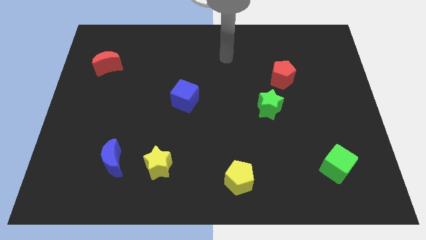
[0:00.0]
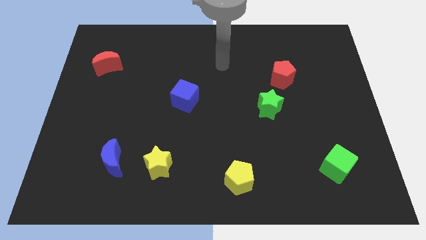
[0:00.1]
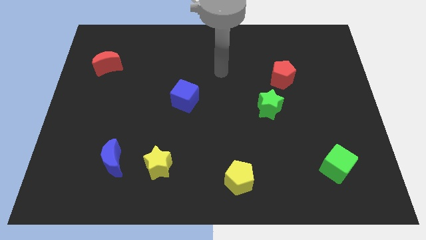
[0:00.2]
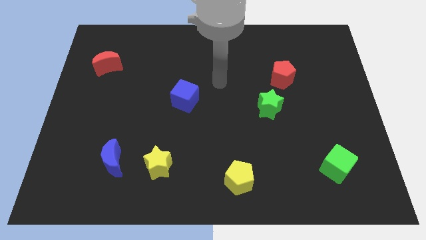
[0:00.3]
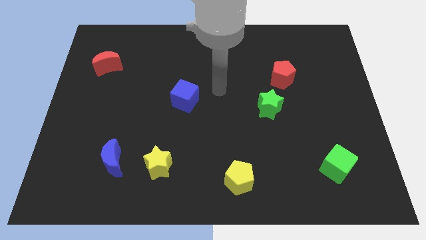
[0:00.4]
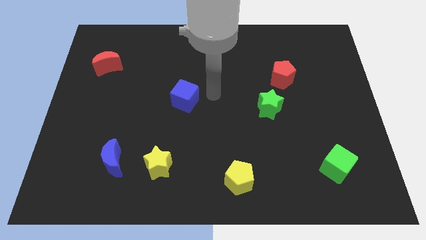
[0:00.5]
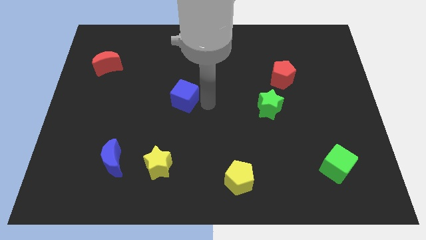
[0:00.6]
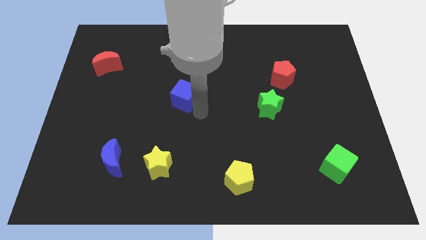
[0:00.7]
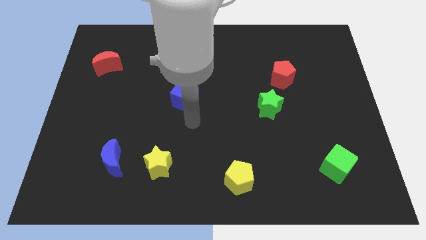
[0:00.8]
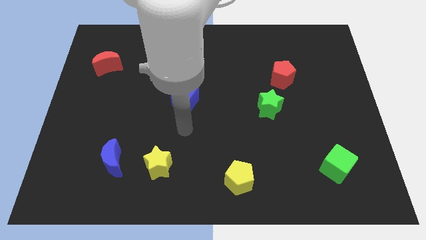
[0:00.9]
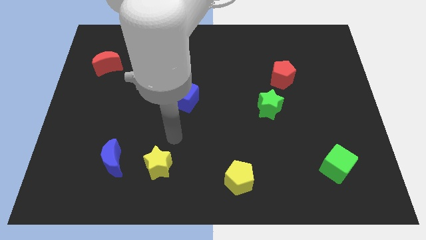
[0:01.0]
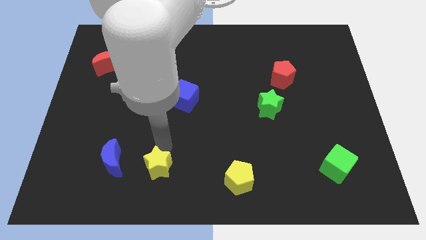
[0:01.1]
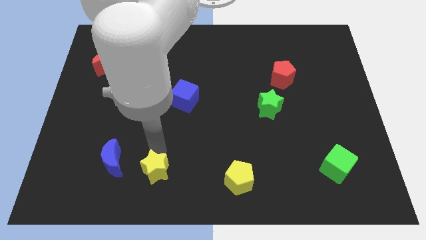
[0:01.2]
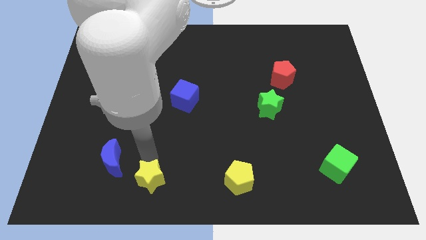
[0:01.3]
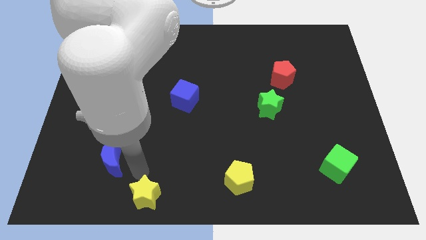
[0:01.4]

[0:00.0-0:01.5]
move the blue moon away from the yellow star

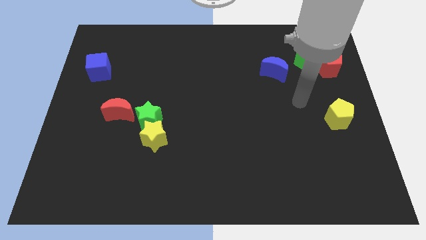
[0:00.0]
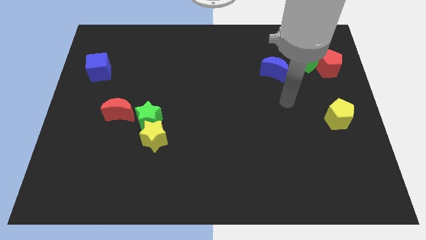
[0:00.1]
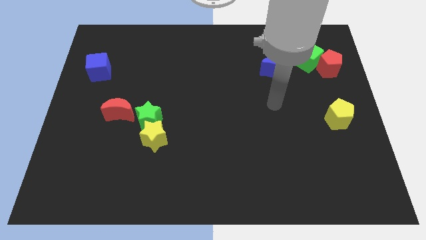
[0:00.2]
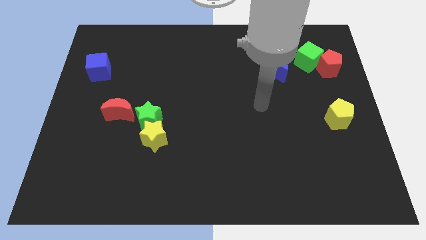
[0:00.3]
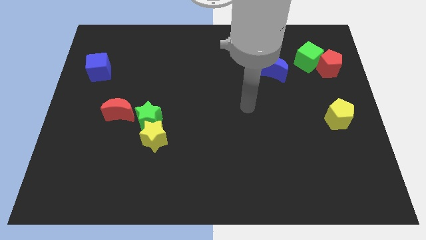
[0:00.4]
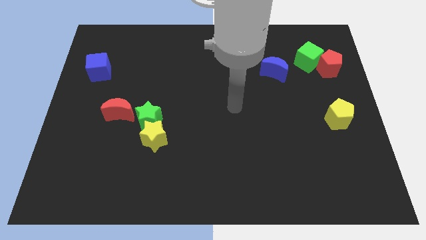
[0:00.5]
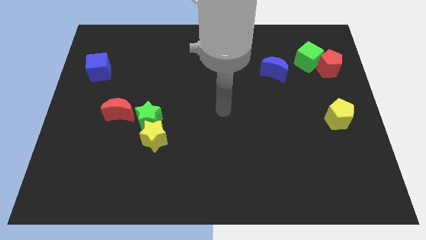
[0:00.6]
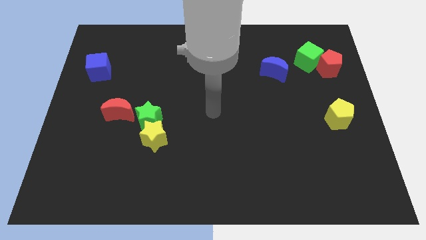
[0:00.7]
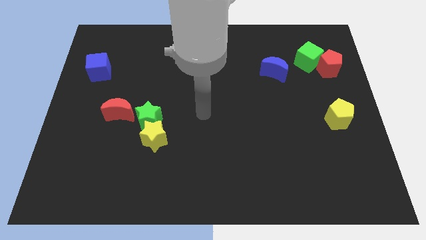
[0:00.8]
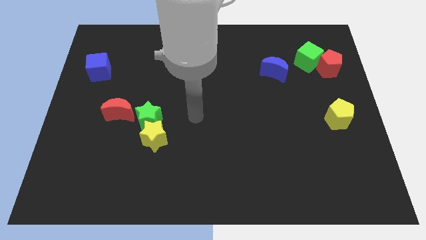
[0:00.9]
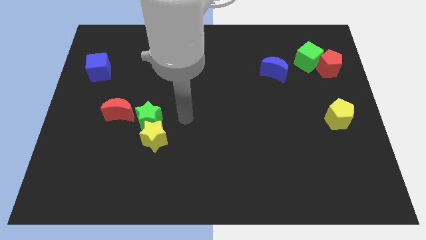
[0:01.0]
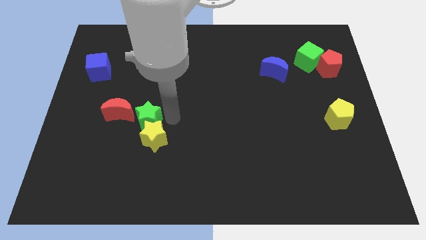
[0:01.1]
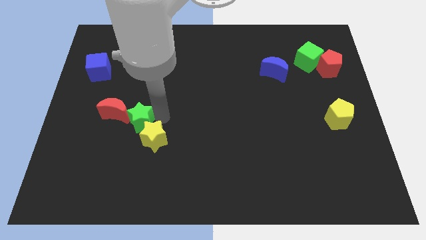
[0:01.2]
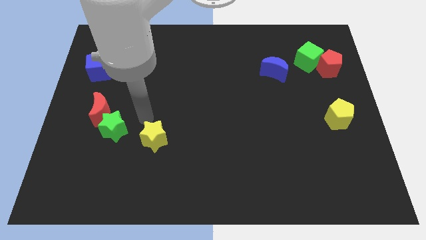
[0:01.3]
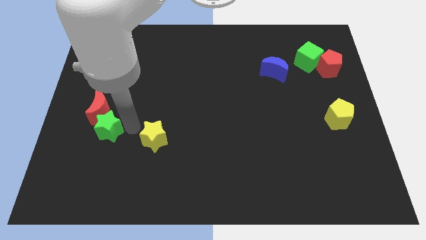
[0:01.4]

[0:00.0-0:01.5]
pull the yellow star apart from the green star

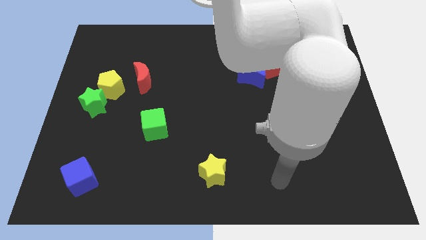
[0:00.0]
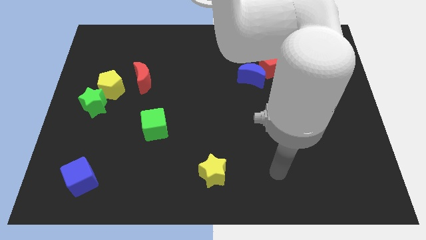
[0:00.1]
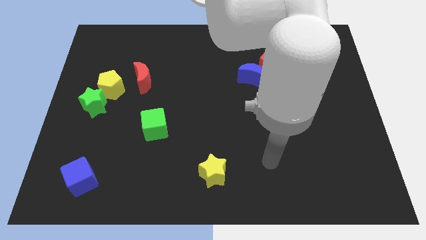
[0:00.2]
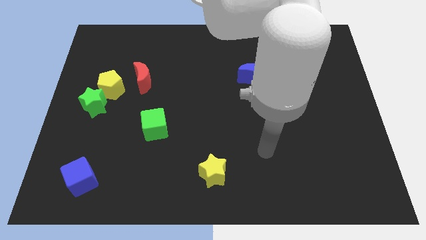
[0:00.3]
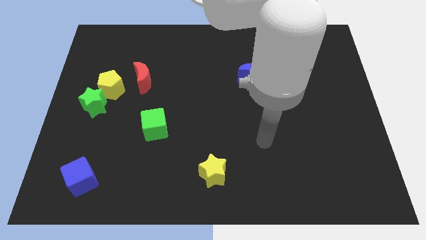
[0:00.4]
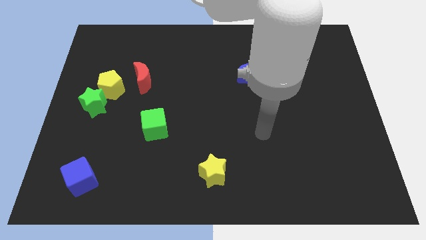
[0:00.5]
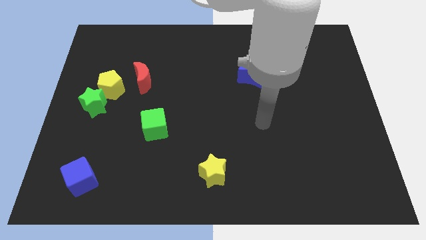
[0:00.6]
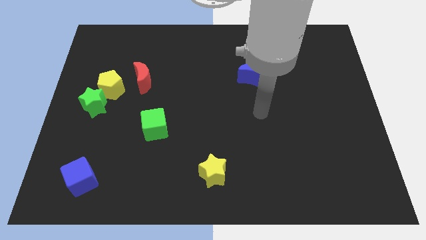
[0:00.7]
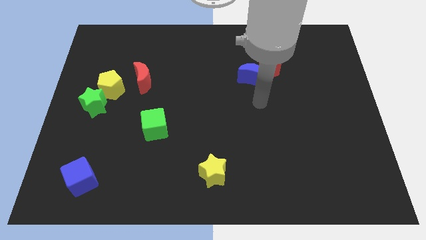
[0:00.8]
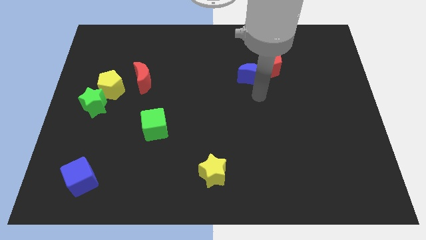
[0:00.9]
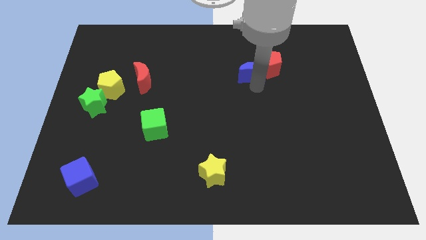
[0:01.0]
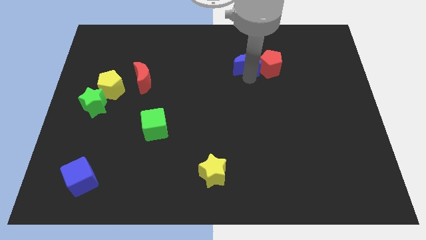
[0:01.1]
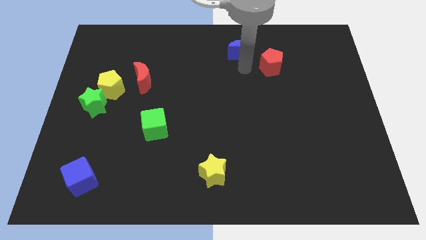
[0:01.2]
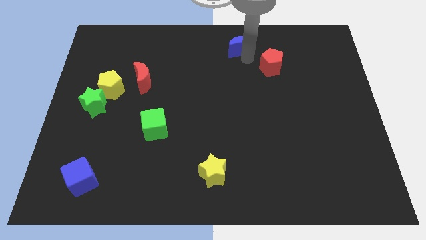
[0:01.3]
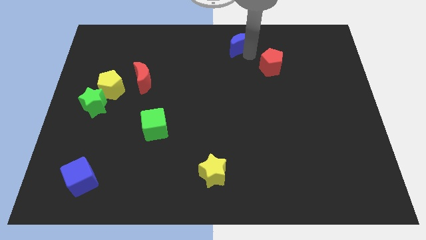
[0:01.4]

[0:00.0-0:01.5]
pull the red pentagon apart from the blue moon

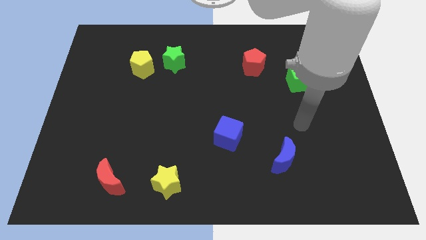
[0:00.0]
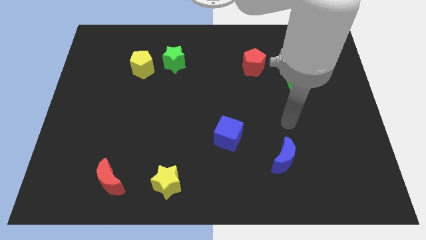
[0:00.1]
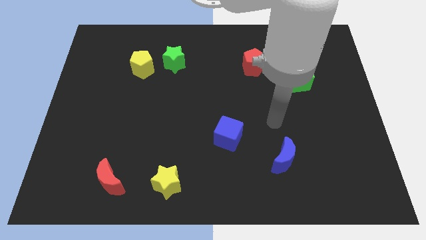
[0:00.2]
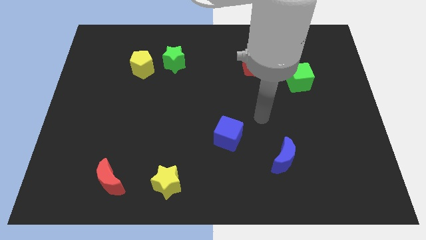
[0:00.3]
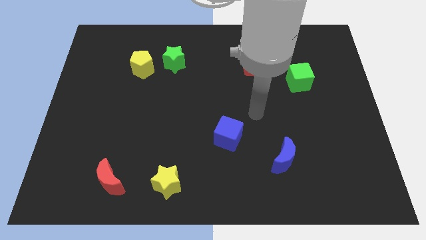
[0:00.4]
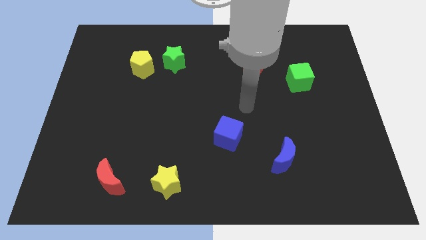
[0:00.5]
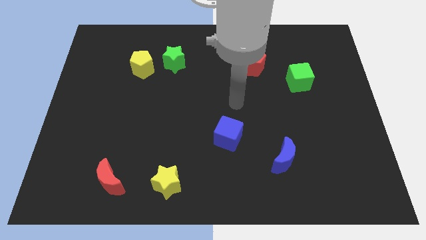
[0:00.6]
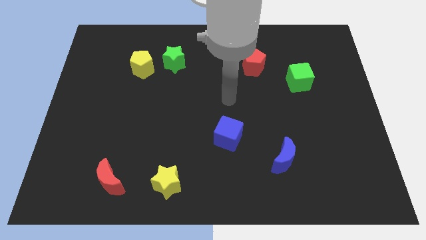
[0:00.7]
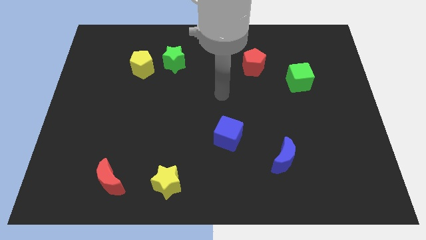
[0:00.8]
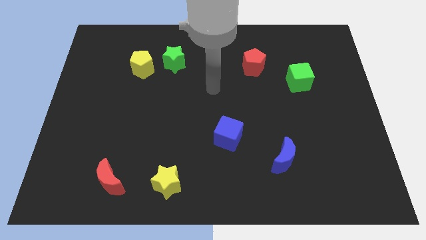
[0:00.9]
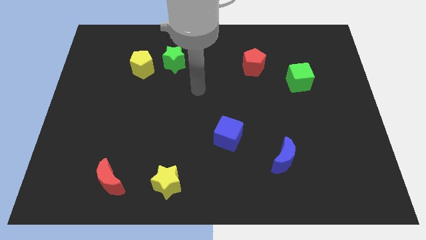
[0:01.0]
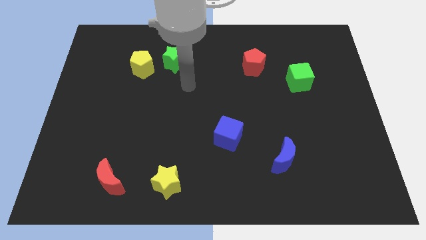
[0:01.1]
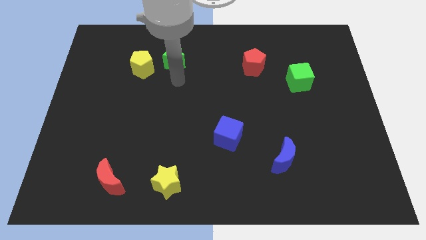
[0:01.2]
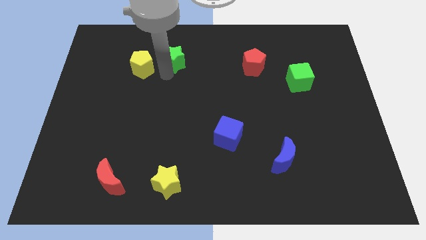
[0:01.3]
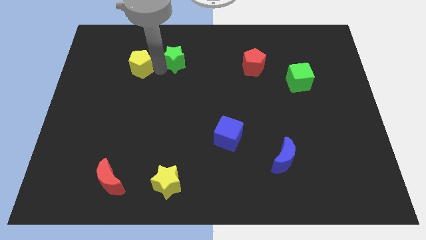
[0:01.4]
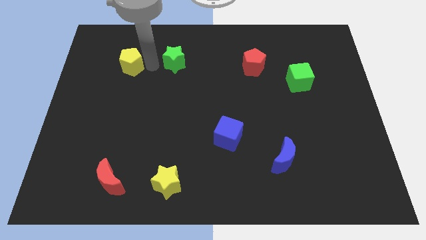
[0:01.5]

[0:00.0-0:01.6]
pull the green star apart from the yellow pentagon

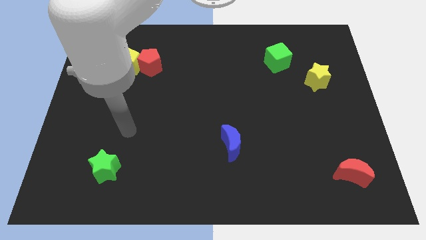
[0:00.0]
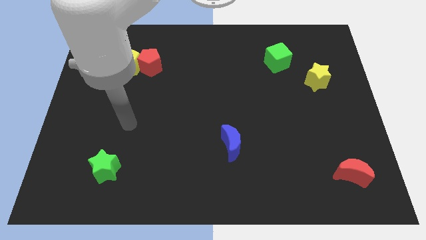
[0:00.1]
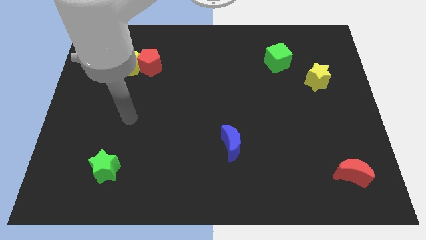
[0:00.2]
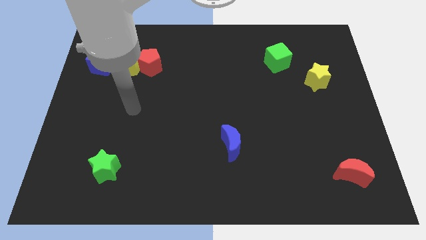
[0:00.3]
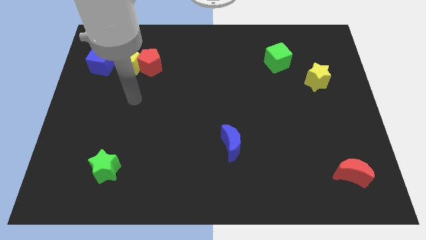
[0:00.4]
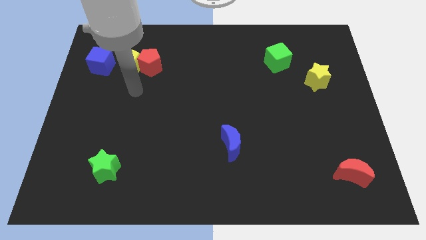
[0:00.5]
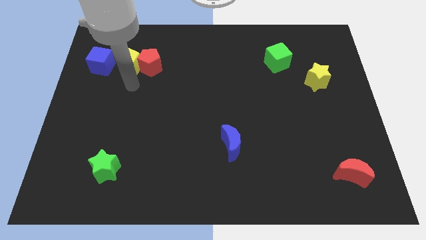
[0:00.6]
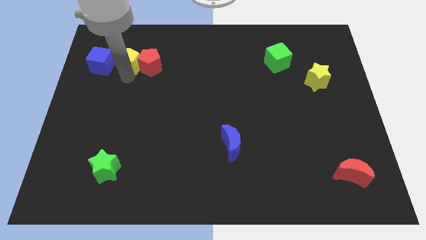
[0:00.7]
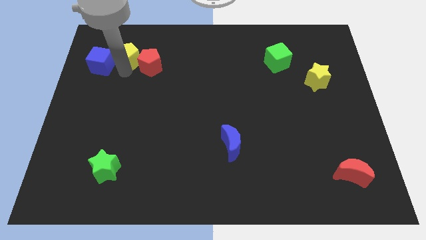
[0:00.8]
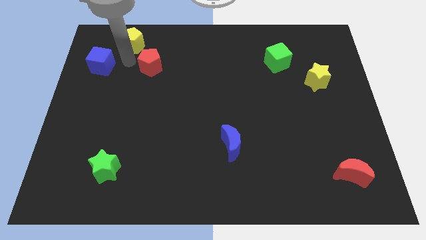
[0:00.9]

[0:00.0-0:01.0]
move the red pentagon away from the yellow pentagon

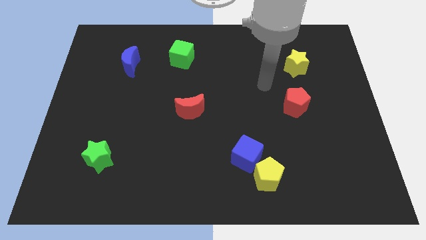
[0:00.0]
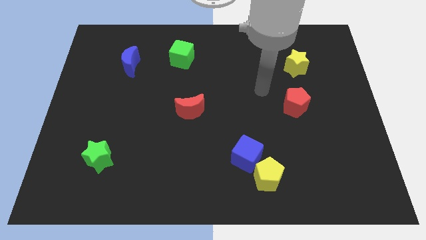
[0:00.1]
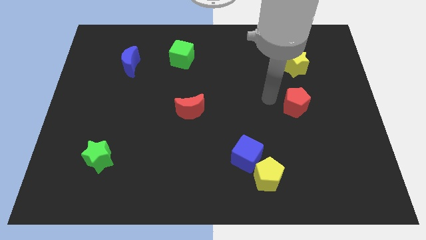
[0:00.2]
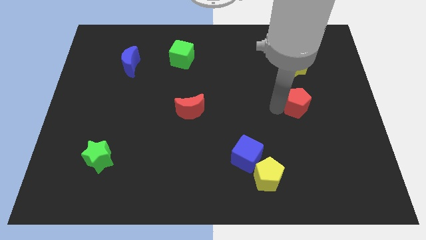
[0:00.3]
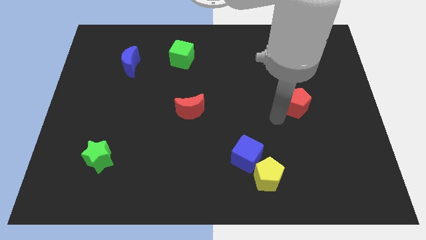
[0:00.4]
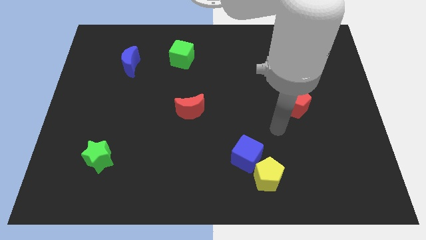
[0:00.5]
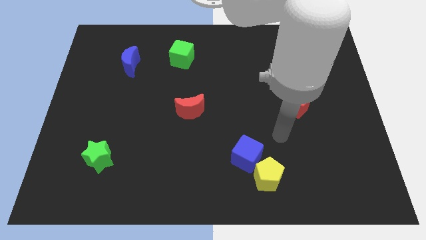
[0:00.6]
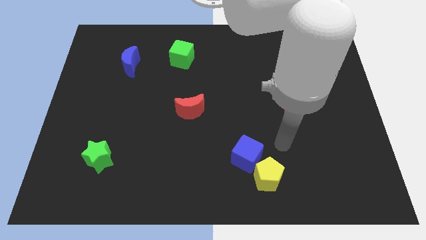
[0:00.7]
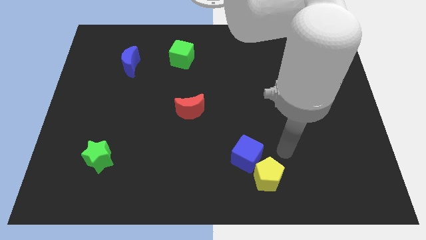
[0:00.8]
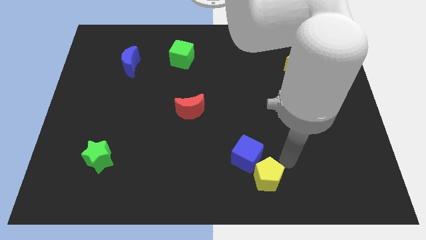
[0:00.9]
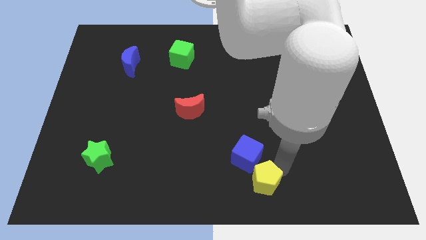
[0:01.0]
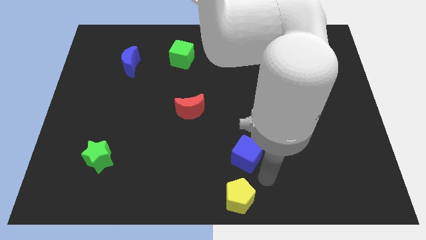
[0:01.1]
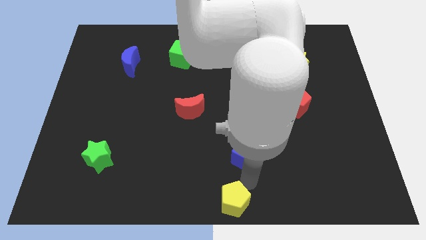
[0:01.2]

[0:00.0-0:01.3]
pull the blue cube apart from the yellow pentagon

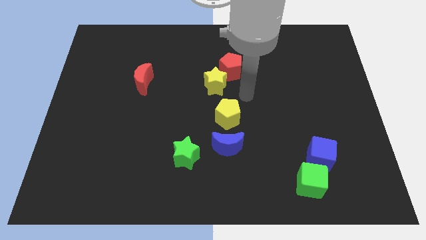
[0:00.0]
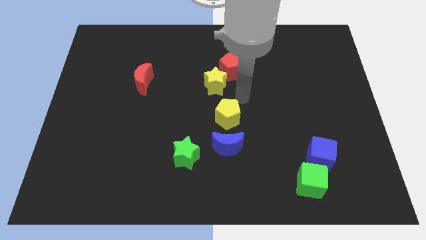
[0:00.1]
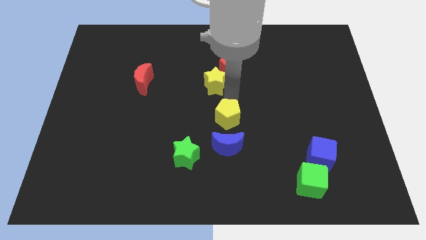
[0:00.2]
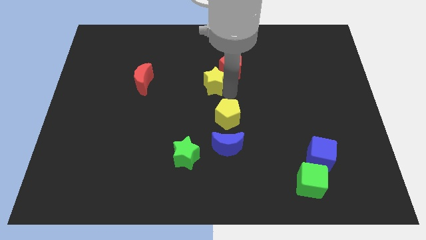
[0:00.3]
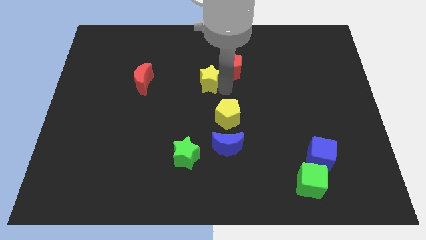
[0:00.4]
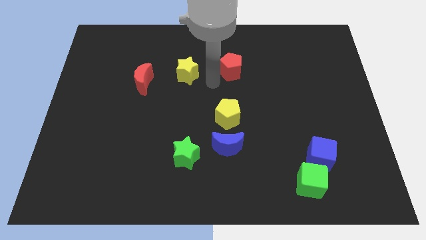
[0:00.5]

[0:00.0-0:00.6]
pull the red pentagon apart from the yellow star

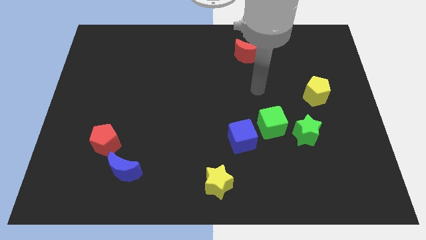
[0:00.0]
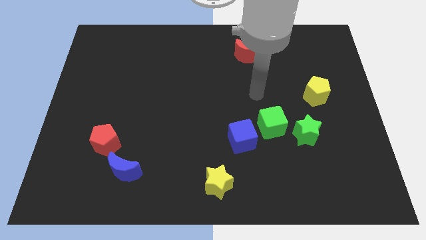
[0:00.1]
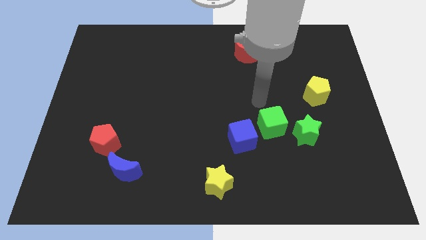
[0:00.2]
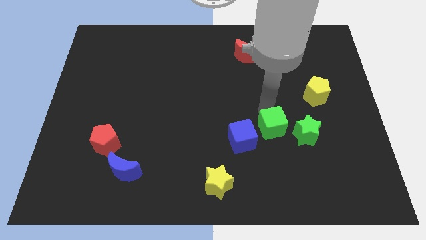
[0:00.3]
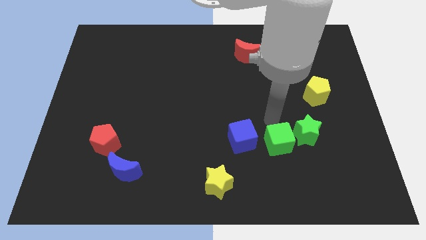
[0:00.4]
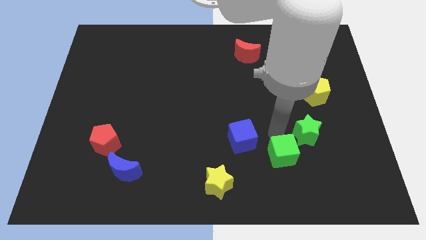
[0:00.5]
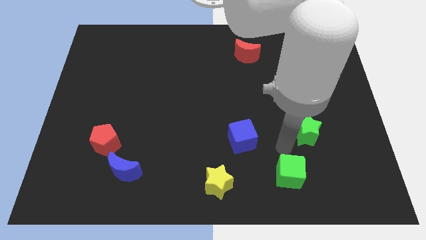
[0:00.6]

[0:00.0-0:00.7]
pull the green star apart from the green cube
